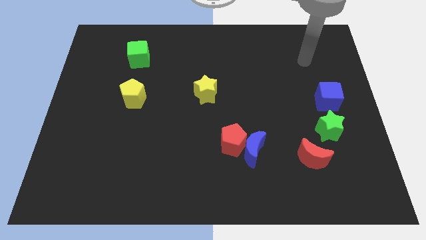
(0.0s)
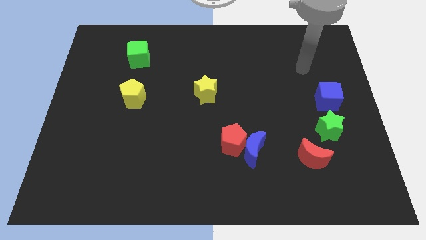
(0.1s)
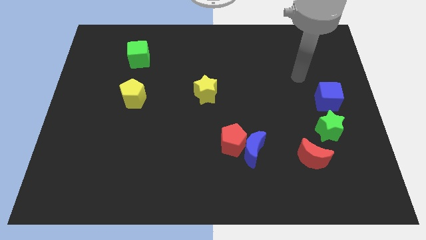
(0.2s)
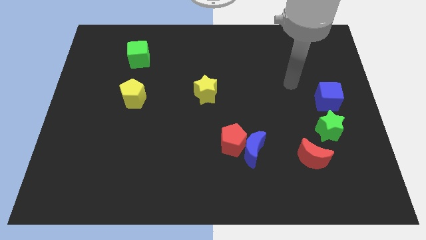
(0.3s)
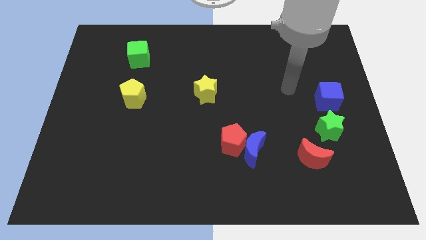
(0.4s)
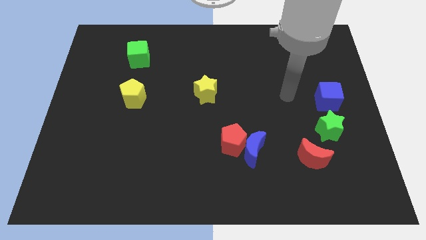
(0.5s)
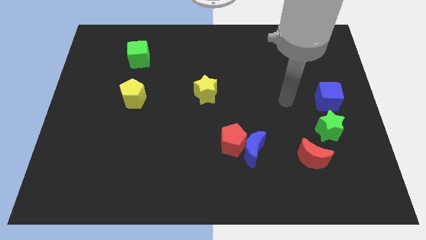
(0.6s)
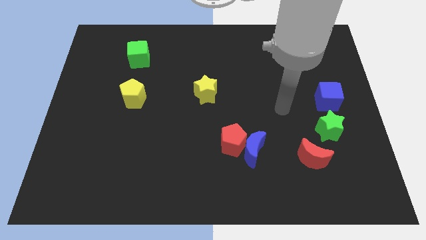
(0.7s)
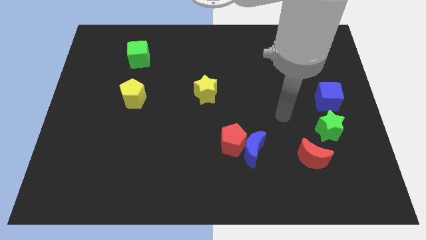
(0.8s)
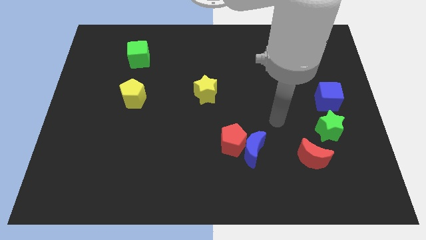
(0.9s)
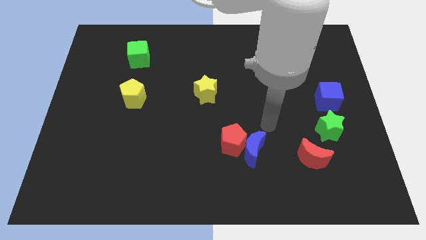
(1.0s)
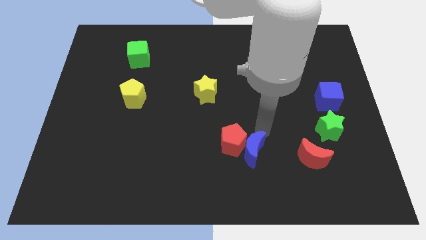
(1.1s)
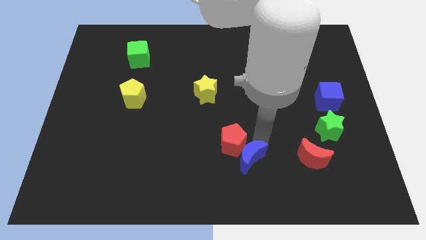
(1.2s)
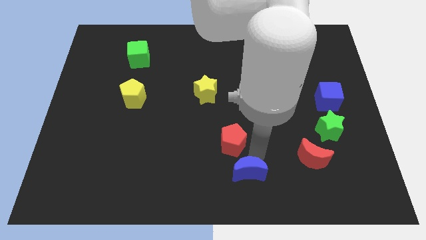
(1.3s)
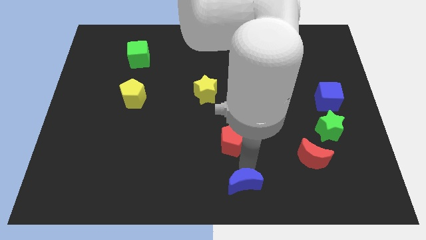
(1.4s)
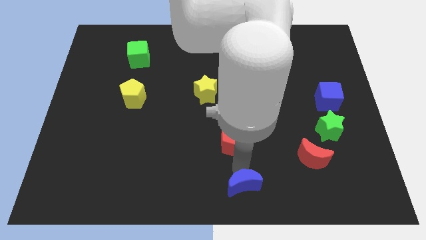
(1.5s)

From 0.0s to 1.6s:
move the red pentagon away from the blue moon

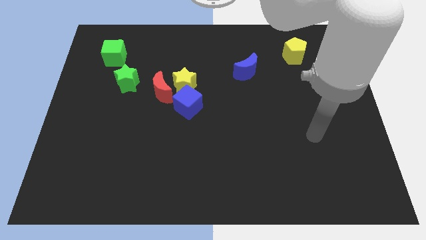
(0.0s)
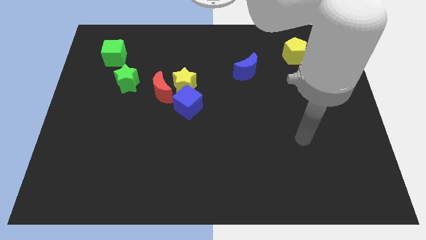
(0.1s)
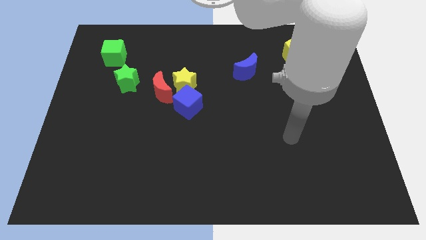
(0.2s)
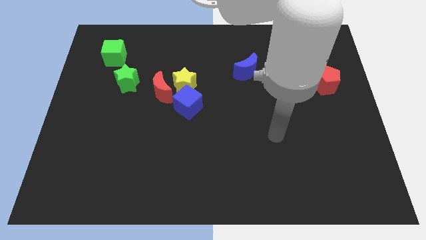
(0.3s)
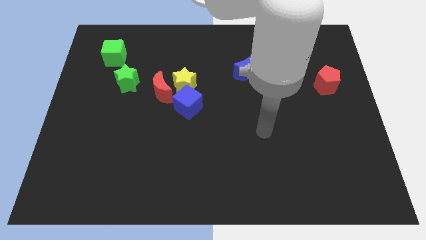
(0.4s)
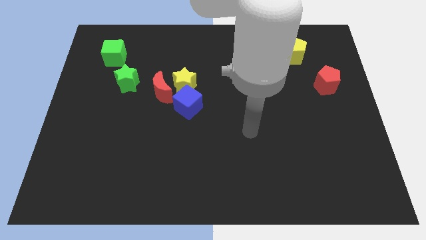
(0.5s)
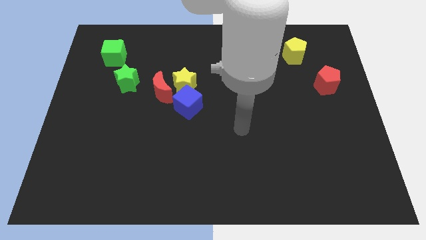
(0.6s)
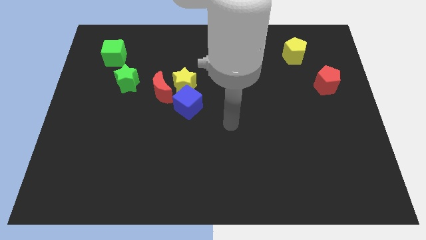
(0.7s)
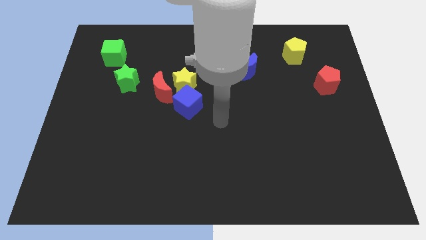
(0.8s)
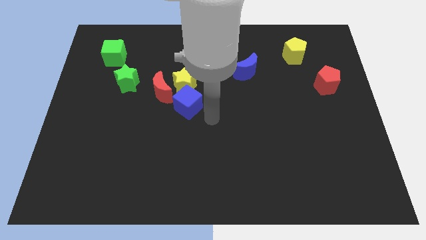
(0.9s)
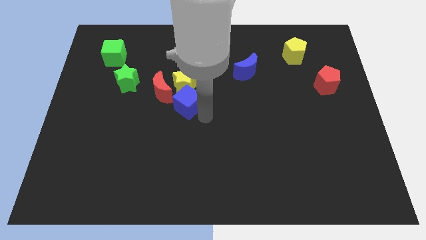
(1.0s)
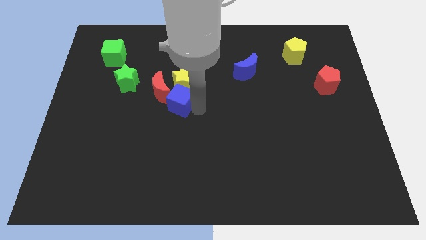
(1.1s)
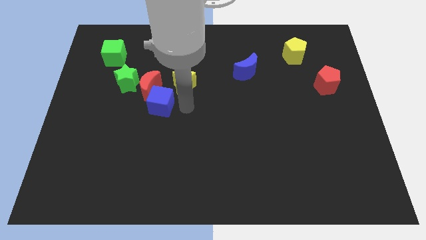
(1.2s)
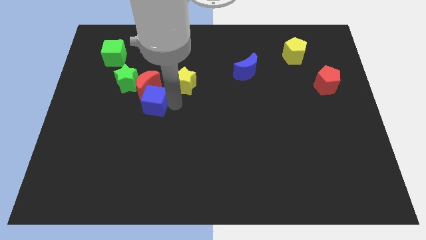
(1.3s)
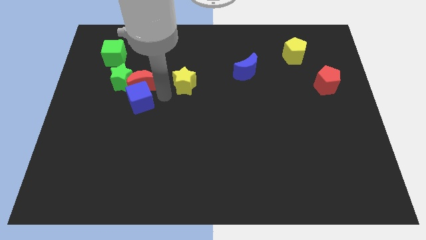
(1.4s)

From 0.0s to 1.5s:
separate the yellow star from the red moon and blue cube

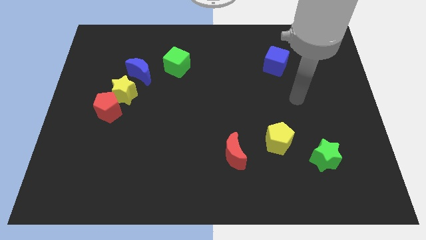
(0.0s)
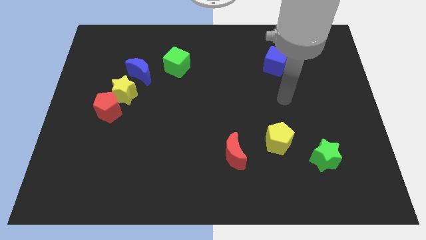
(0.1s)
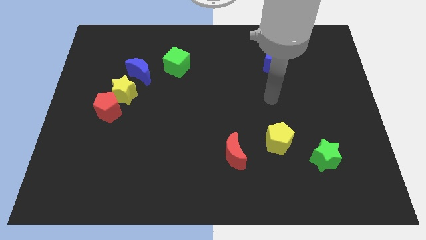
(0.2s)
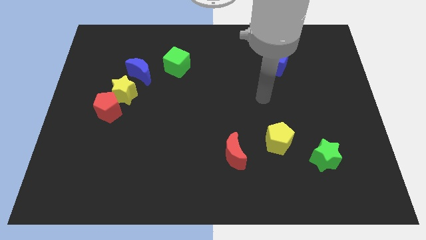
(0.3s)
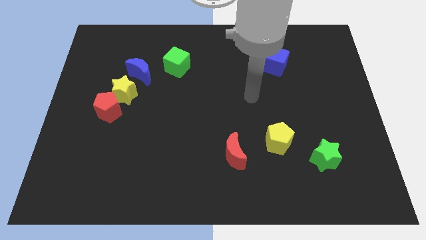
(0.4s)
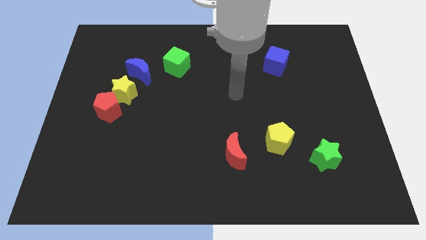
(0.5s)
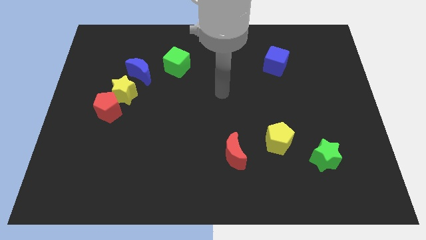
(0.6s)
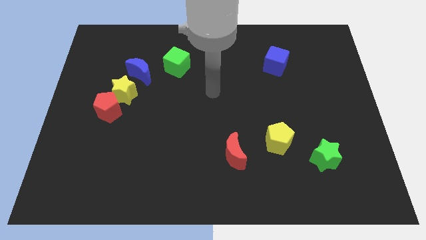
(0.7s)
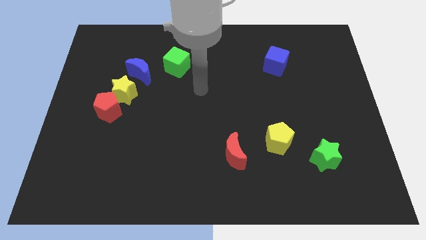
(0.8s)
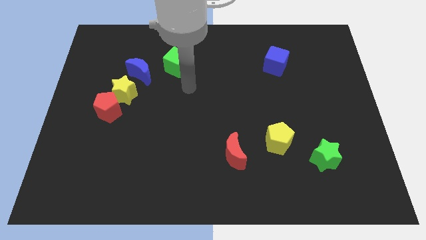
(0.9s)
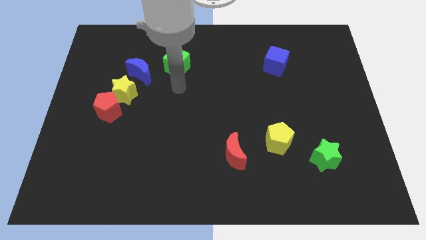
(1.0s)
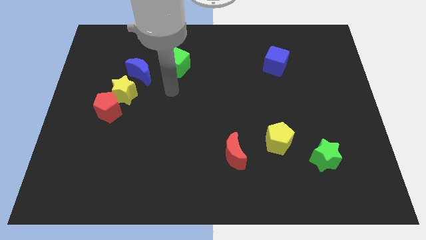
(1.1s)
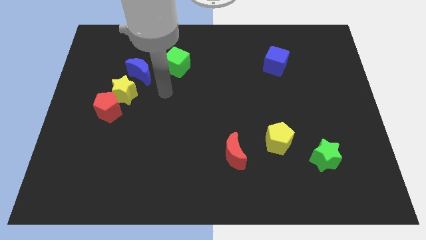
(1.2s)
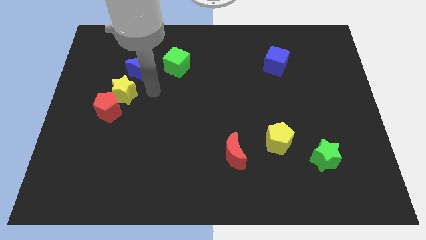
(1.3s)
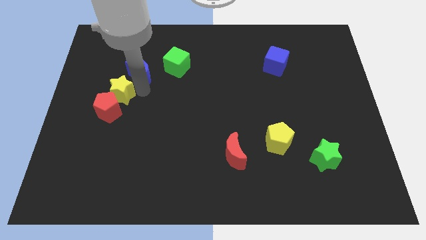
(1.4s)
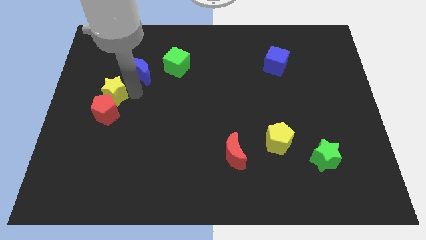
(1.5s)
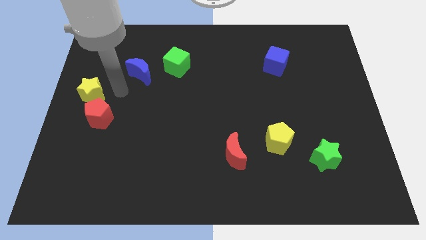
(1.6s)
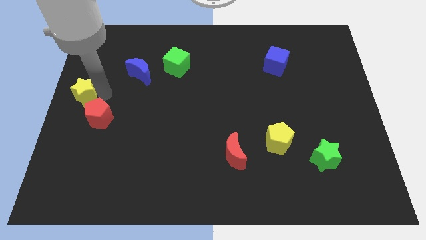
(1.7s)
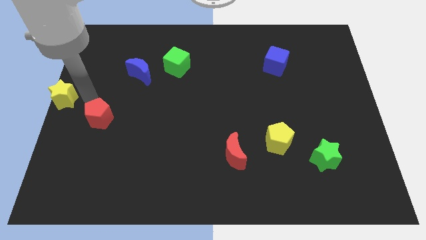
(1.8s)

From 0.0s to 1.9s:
move the red pentagon away from the yellow star

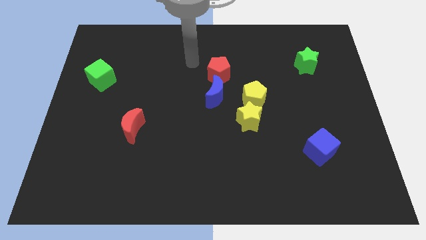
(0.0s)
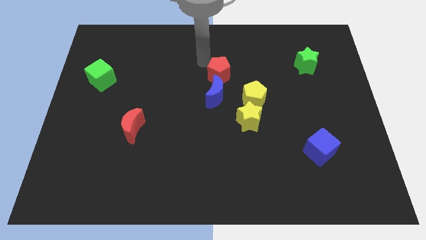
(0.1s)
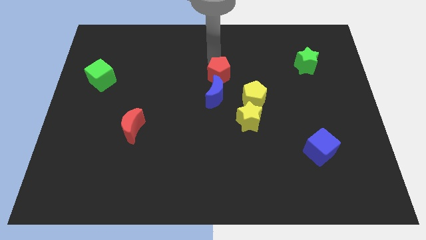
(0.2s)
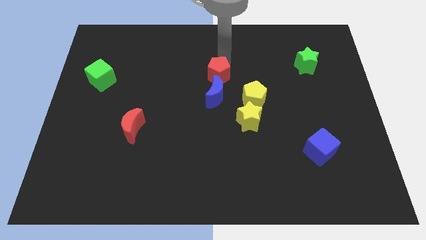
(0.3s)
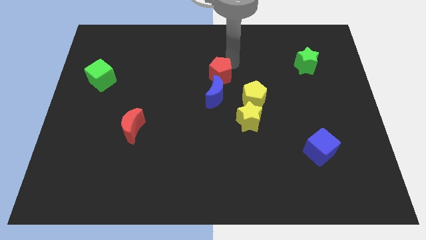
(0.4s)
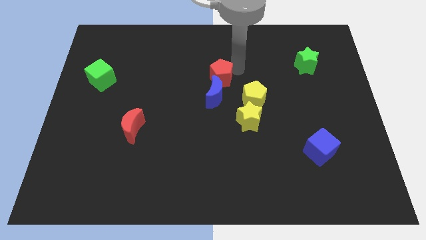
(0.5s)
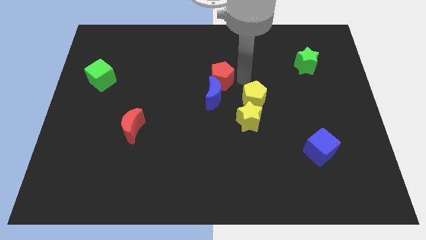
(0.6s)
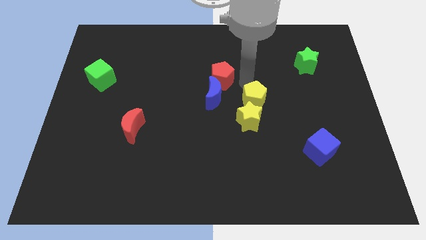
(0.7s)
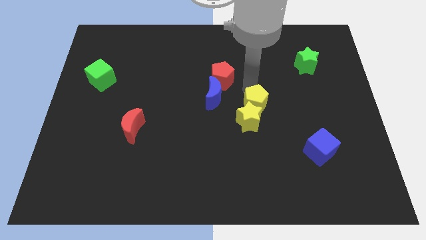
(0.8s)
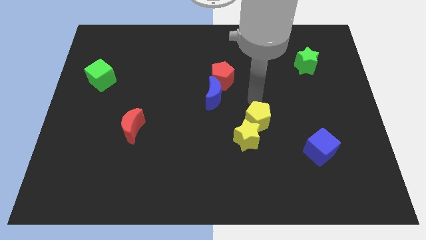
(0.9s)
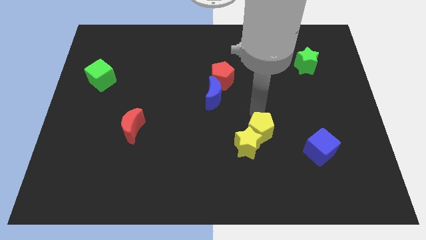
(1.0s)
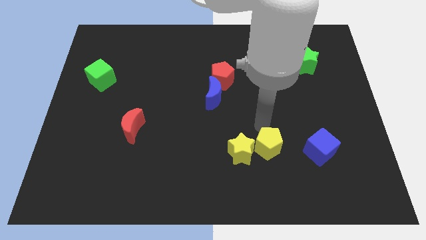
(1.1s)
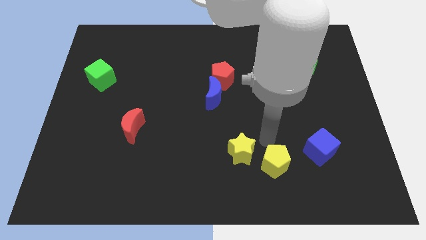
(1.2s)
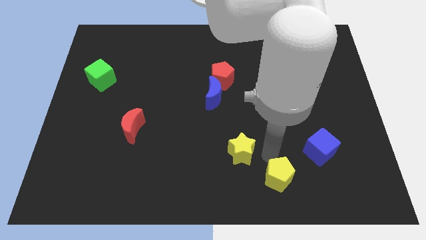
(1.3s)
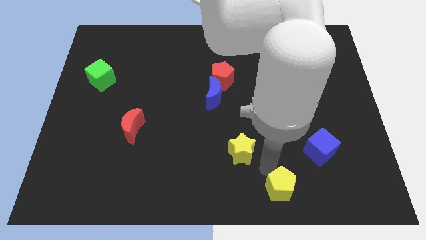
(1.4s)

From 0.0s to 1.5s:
separate the yellow star from the yellow pentagon

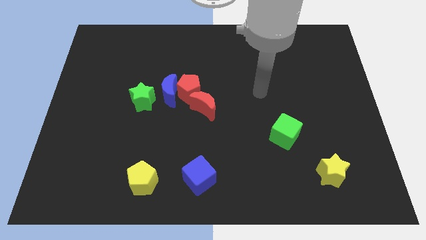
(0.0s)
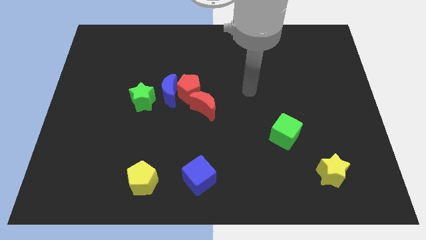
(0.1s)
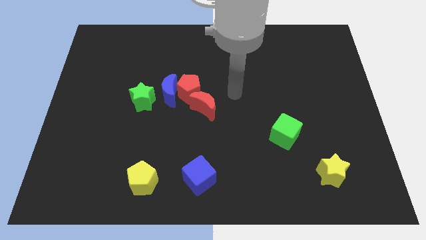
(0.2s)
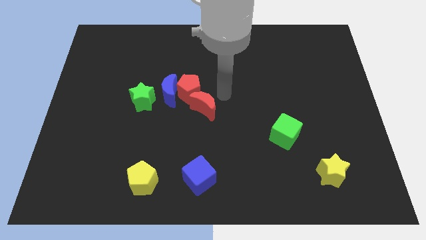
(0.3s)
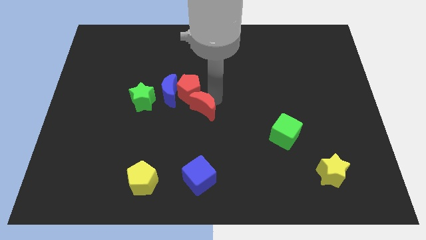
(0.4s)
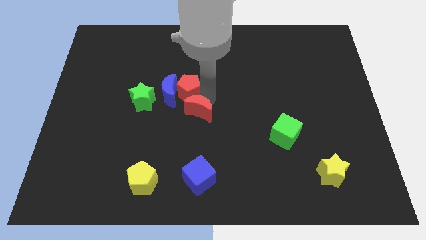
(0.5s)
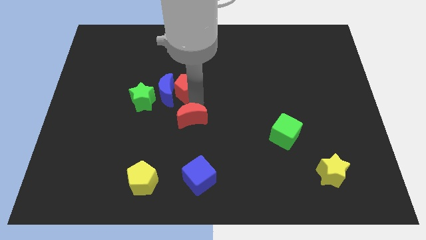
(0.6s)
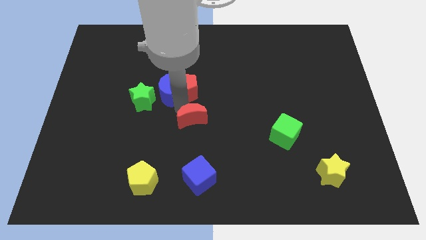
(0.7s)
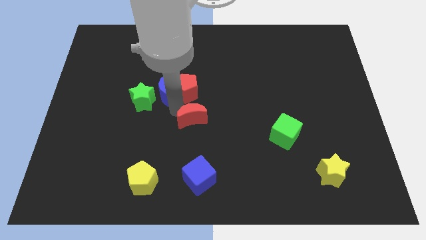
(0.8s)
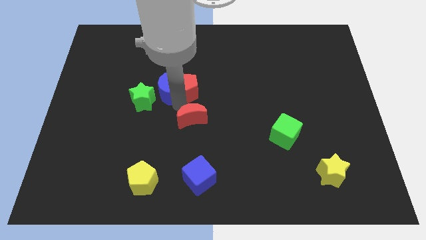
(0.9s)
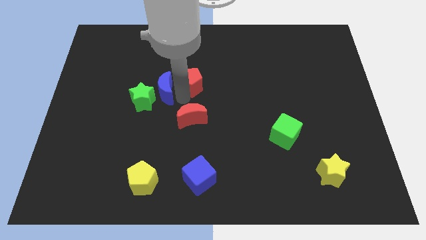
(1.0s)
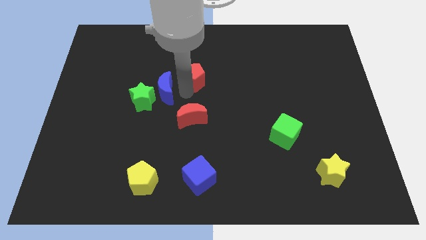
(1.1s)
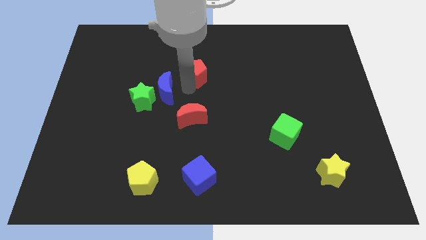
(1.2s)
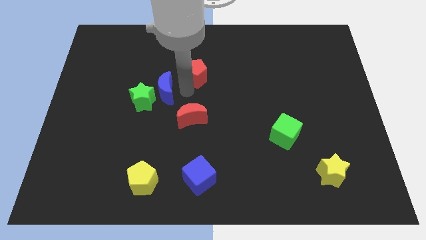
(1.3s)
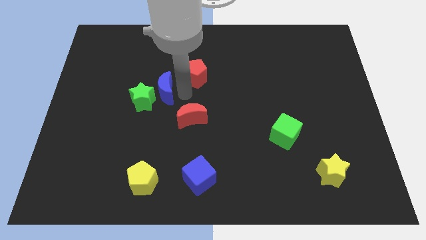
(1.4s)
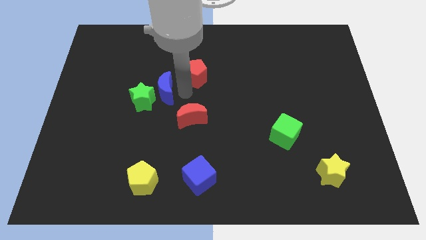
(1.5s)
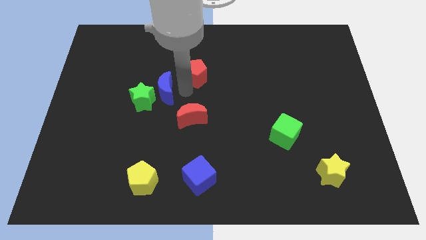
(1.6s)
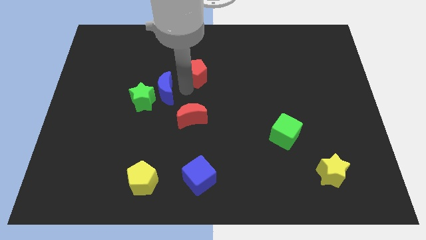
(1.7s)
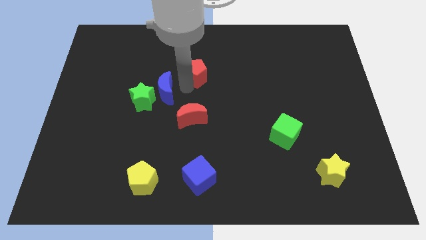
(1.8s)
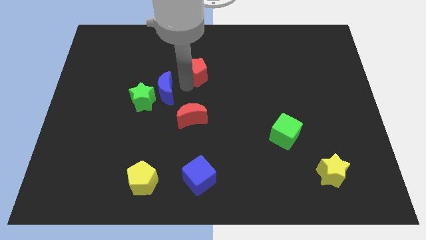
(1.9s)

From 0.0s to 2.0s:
pull the red pentagon apart from the blue moon and red moon

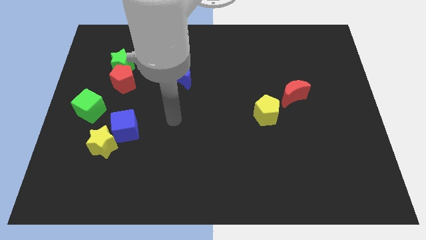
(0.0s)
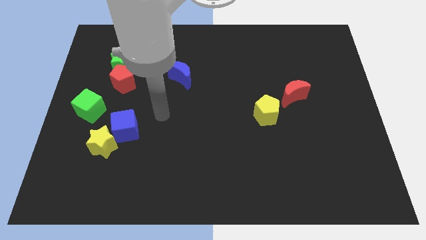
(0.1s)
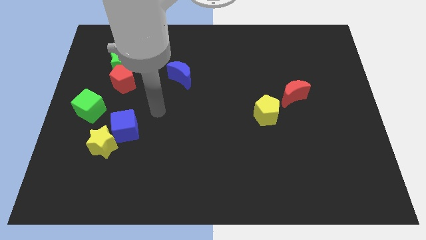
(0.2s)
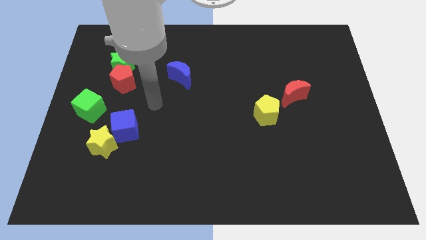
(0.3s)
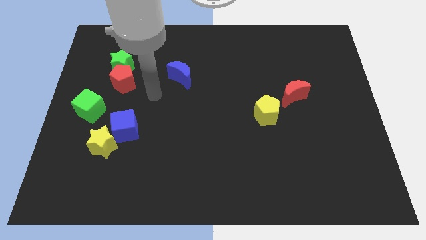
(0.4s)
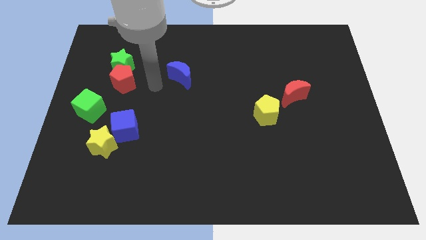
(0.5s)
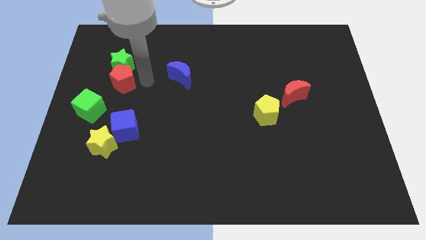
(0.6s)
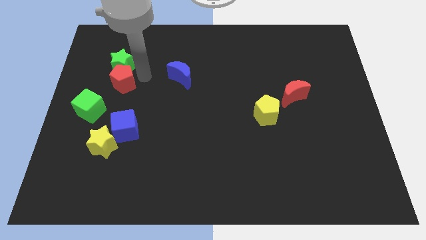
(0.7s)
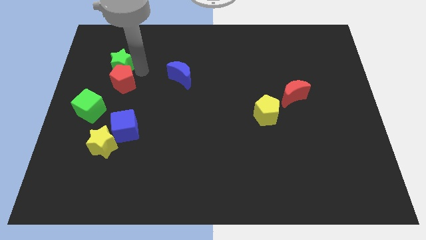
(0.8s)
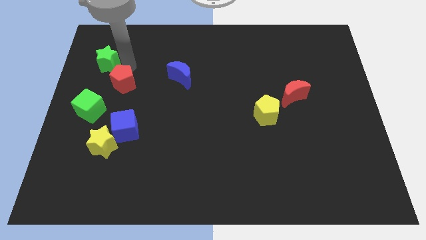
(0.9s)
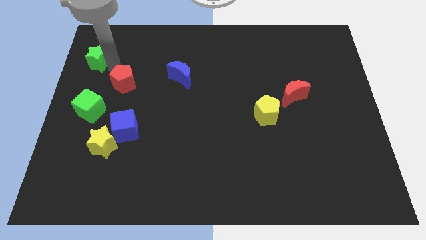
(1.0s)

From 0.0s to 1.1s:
separate the red pentagon from the green star
